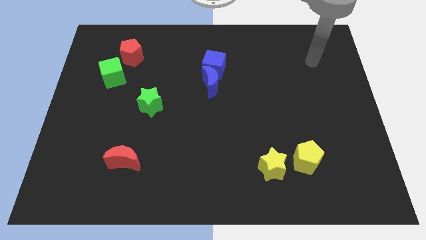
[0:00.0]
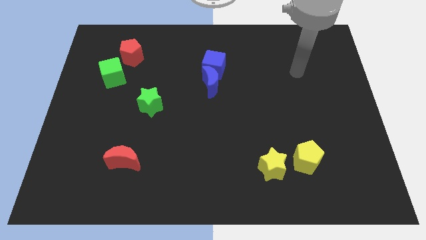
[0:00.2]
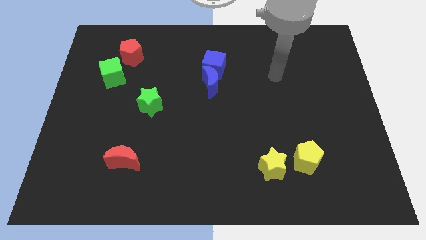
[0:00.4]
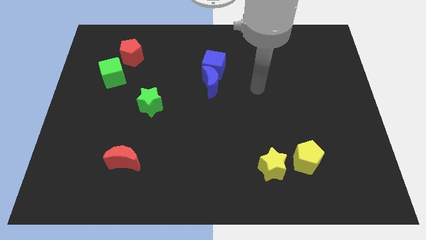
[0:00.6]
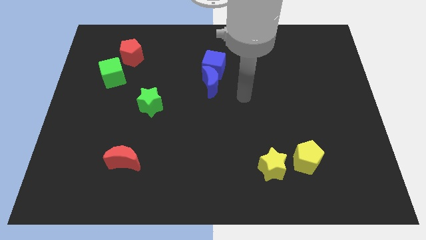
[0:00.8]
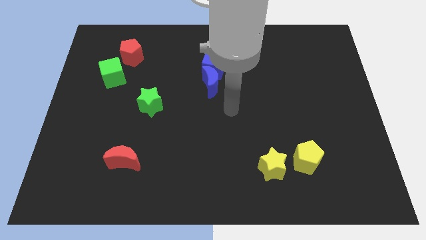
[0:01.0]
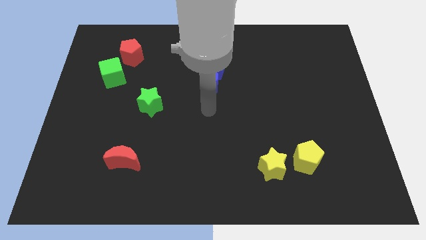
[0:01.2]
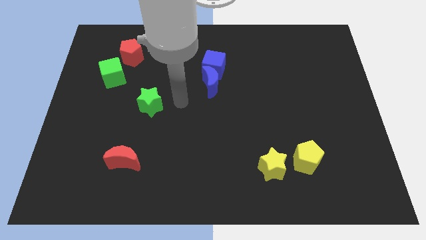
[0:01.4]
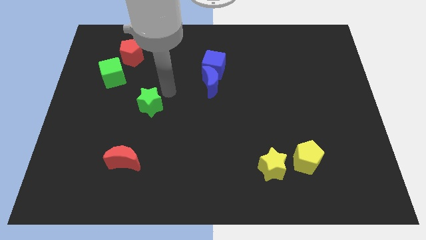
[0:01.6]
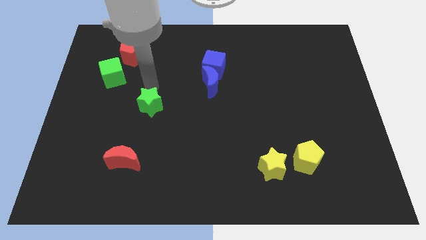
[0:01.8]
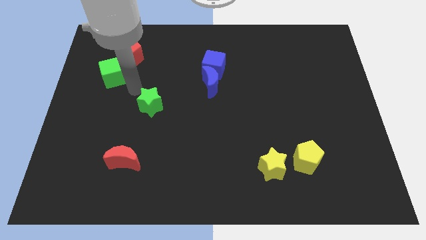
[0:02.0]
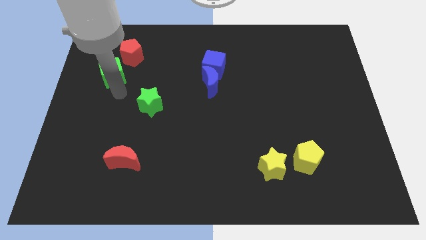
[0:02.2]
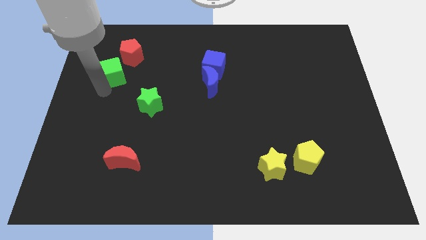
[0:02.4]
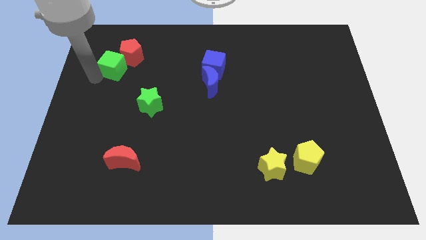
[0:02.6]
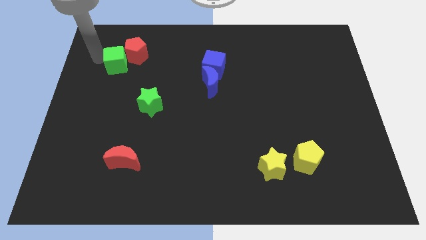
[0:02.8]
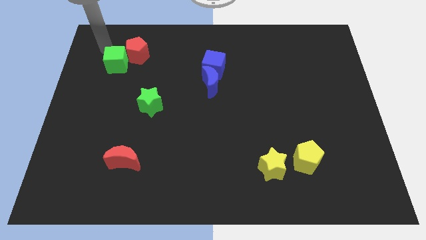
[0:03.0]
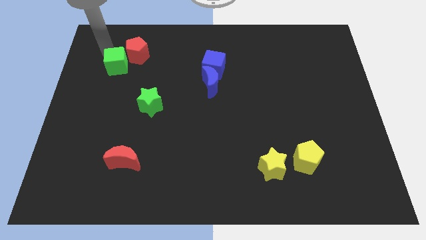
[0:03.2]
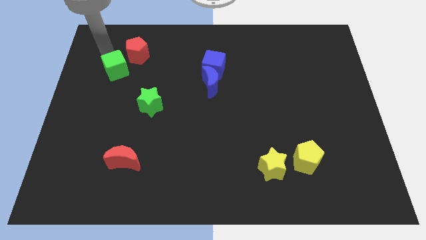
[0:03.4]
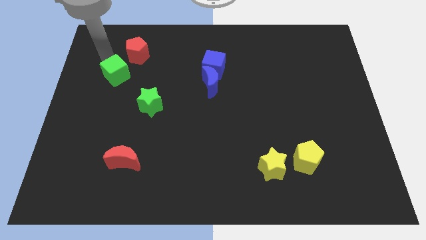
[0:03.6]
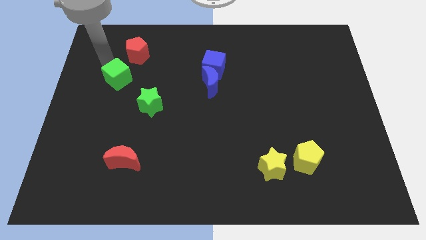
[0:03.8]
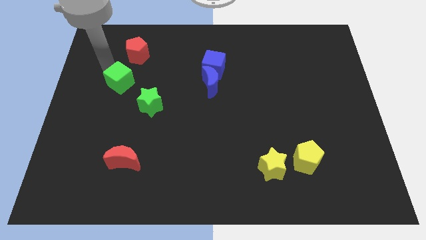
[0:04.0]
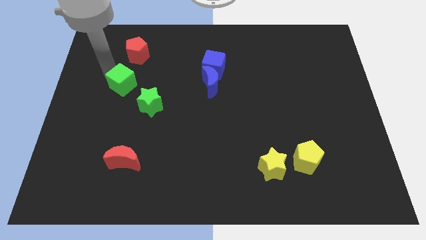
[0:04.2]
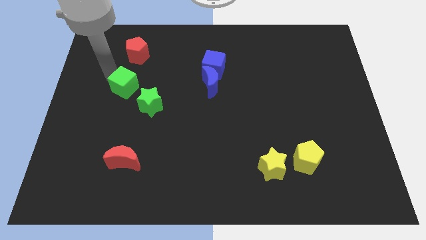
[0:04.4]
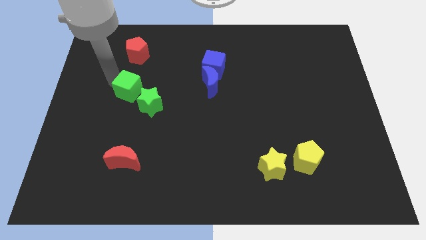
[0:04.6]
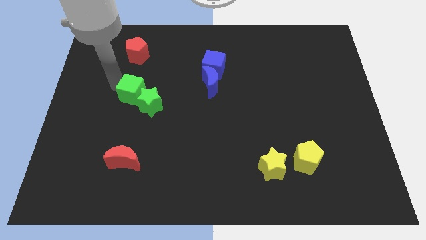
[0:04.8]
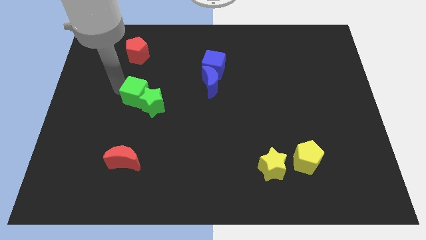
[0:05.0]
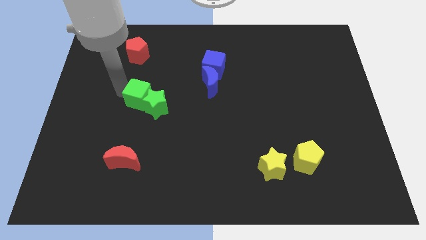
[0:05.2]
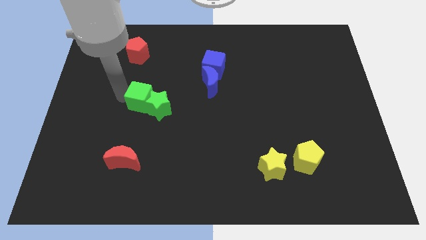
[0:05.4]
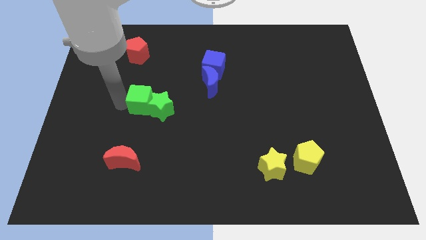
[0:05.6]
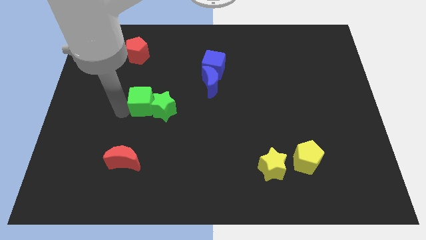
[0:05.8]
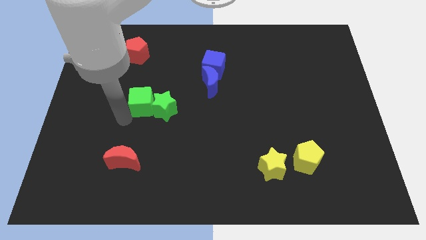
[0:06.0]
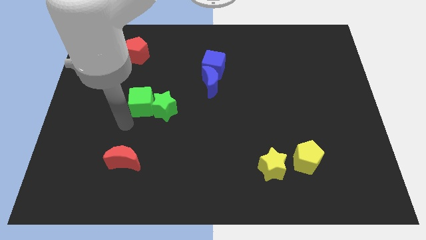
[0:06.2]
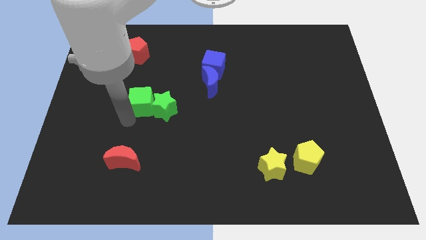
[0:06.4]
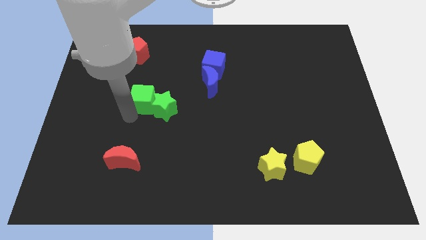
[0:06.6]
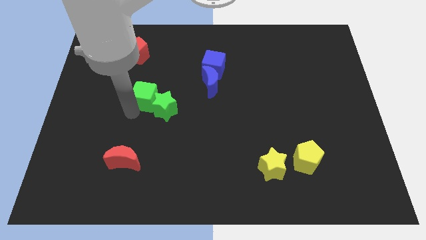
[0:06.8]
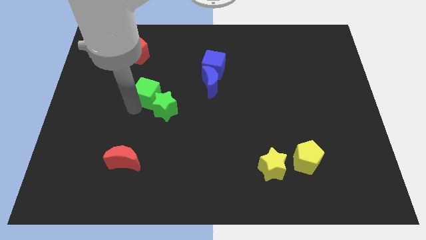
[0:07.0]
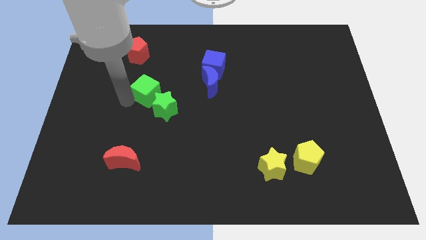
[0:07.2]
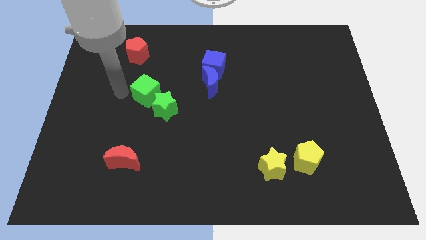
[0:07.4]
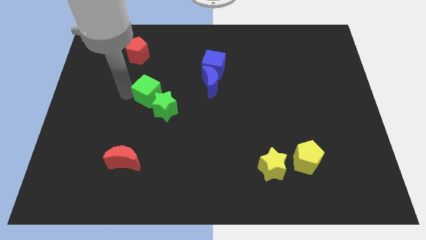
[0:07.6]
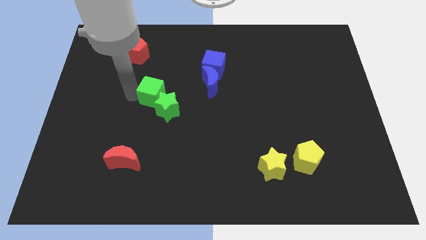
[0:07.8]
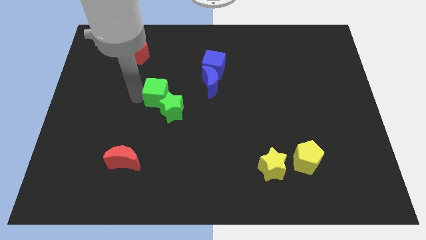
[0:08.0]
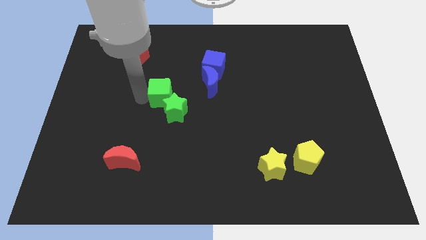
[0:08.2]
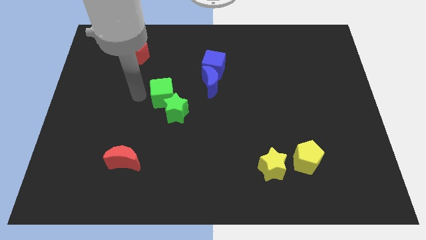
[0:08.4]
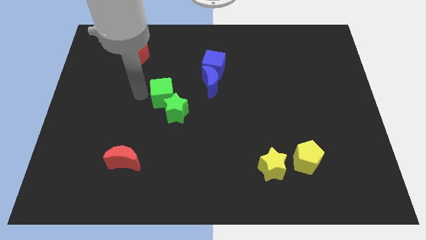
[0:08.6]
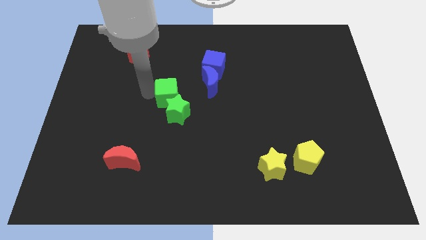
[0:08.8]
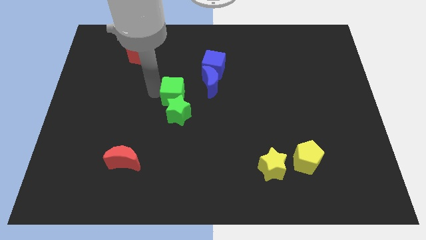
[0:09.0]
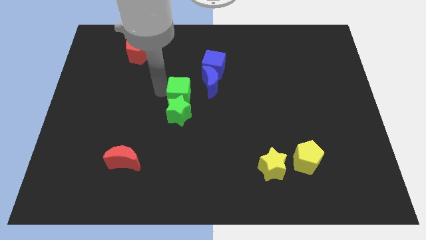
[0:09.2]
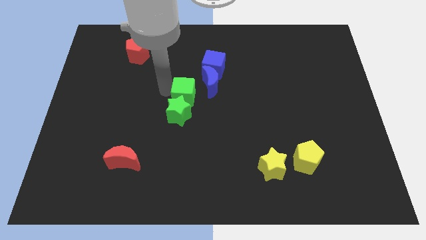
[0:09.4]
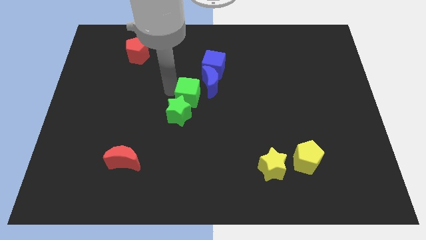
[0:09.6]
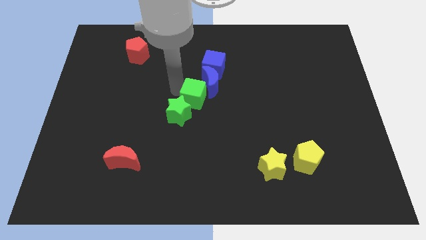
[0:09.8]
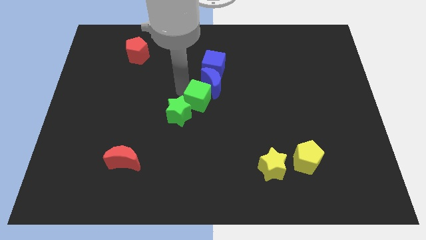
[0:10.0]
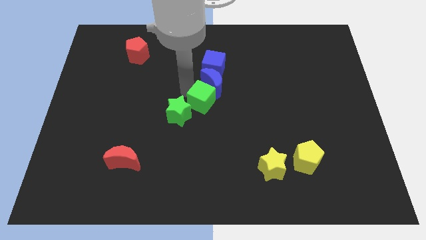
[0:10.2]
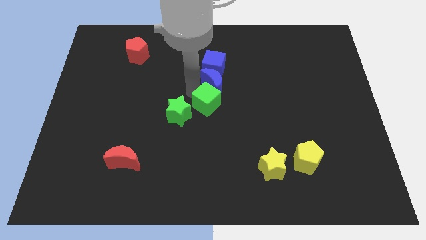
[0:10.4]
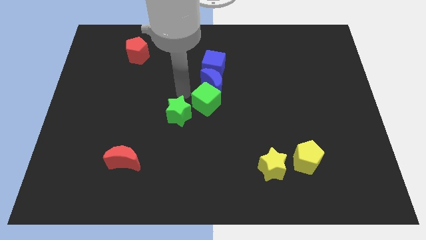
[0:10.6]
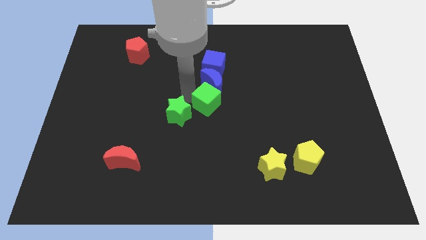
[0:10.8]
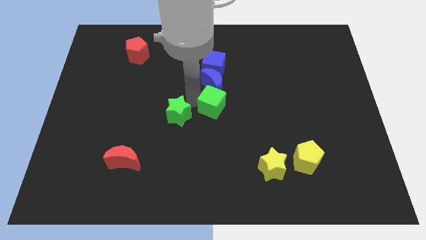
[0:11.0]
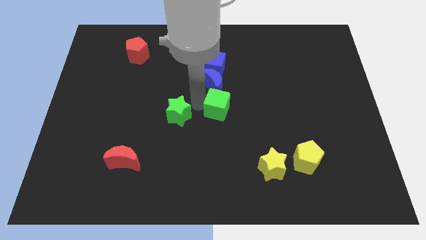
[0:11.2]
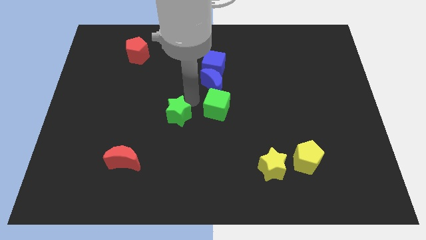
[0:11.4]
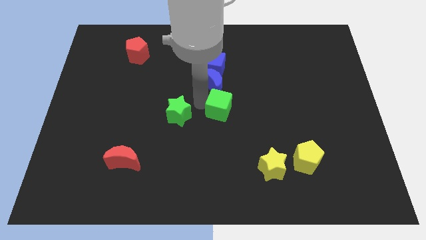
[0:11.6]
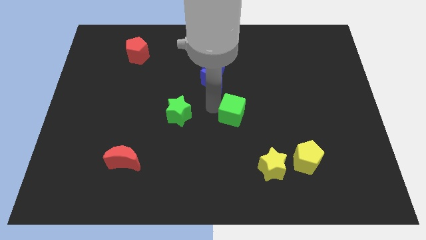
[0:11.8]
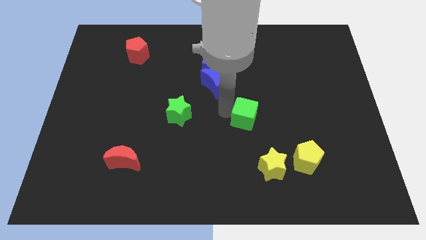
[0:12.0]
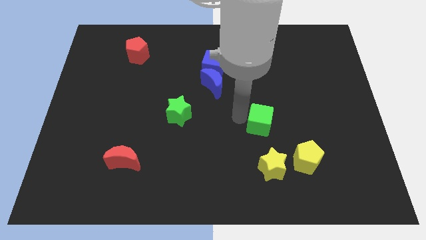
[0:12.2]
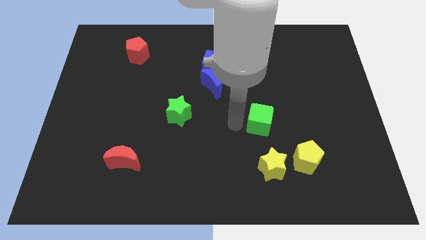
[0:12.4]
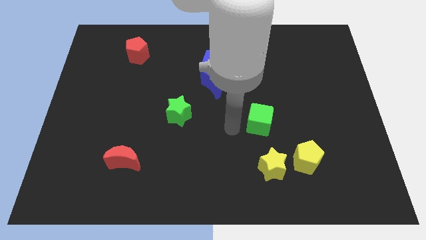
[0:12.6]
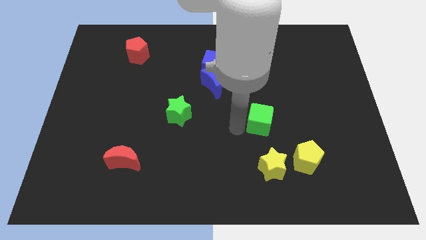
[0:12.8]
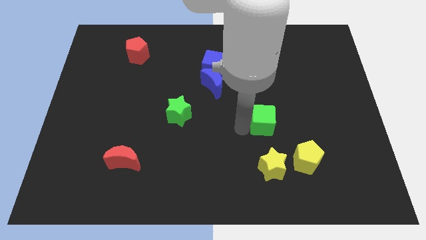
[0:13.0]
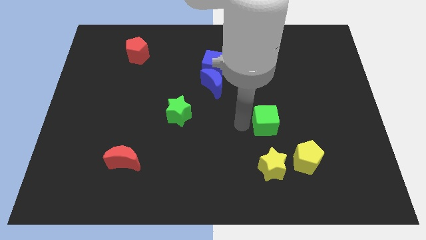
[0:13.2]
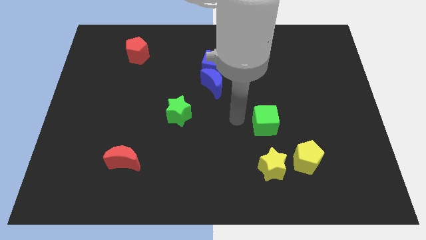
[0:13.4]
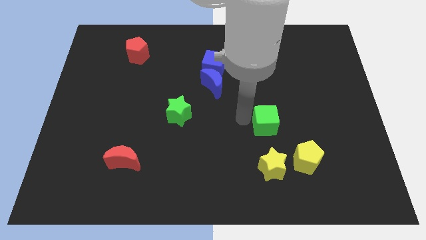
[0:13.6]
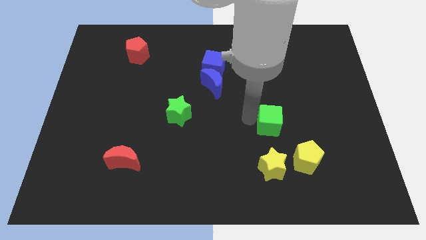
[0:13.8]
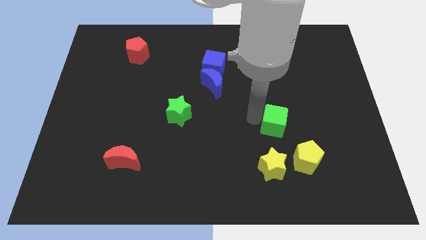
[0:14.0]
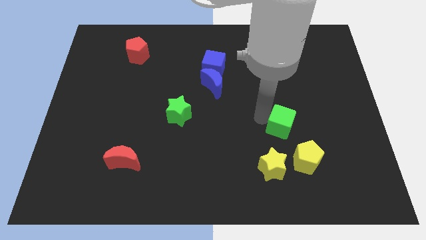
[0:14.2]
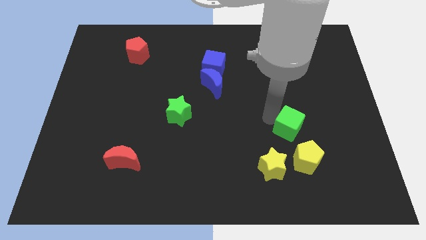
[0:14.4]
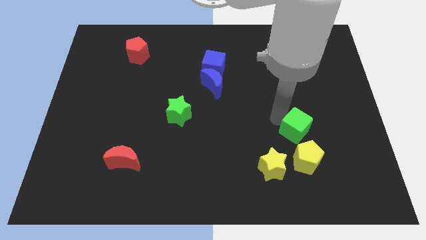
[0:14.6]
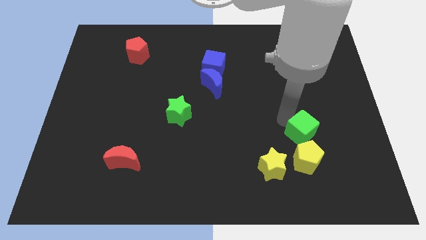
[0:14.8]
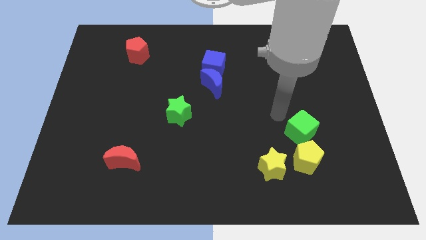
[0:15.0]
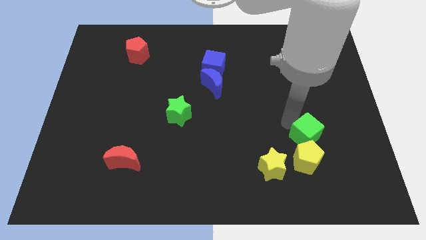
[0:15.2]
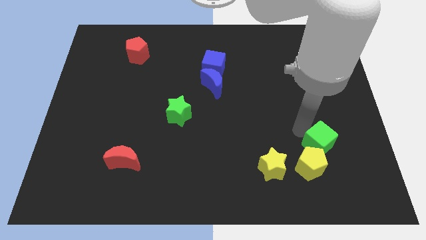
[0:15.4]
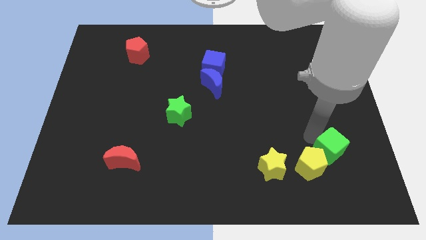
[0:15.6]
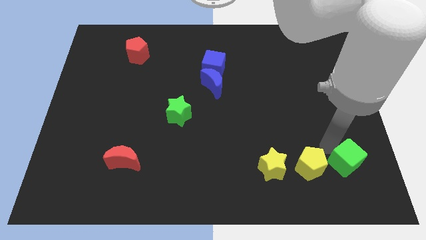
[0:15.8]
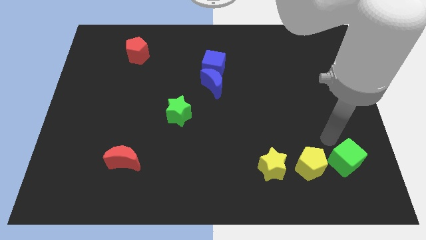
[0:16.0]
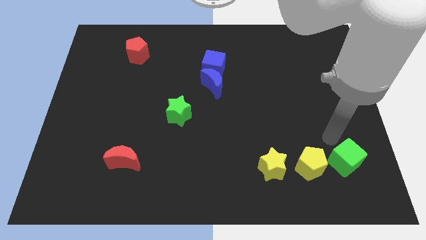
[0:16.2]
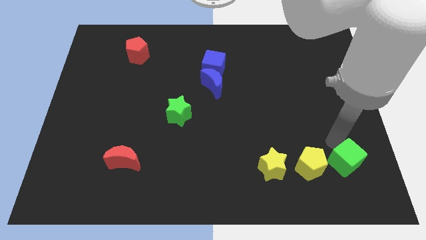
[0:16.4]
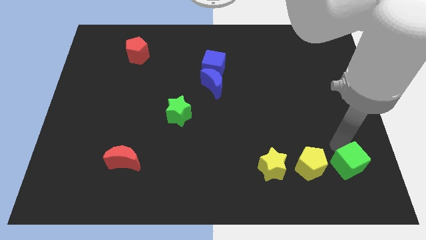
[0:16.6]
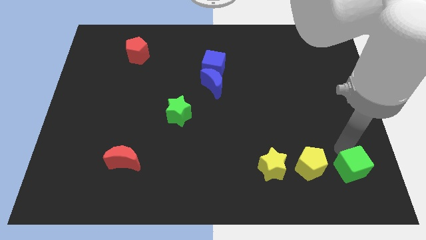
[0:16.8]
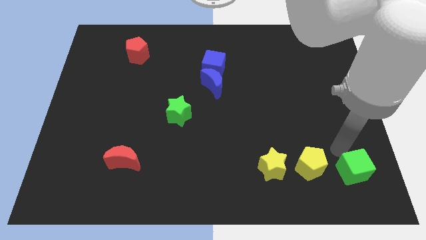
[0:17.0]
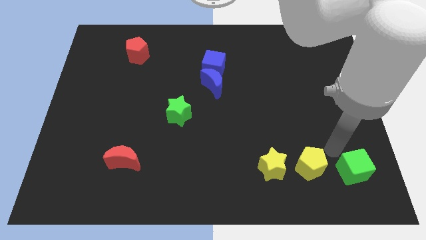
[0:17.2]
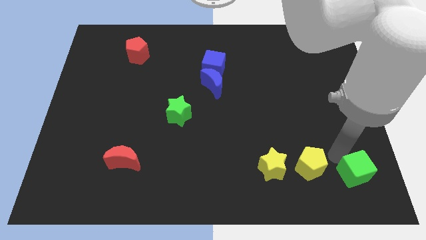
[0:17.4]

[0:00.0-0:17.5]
slide the green cube to the bottom right of the board
